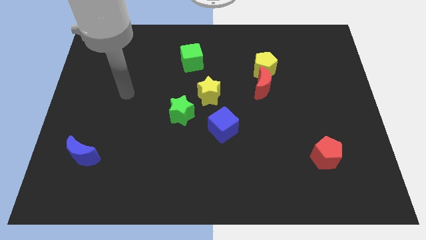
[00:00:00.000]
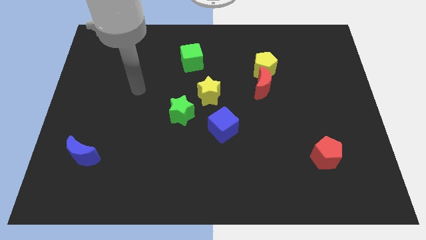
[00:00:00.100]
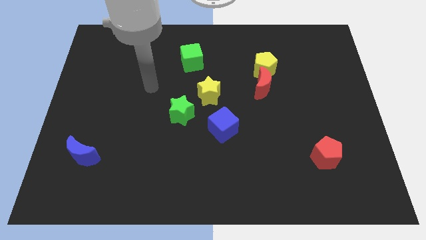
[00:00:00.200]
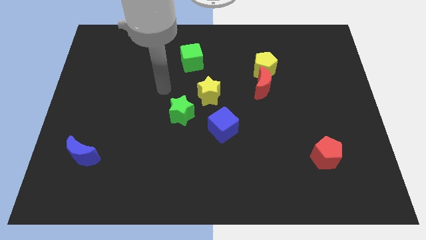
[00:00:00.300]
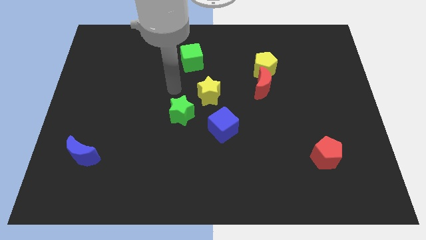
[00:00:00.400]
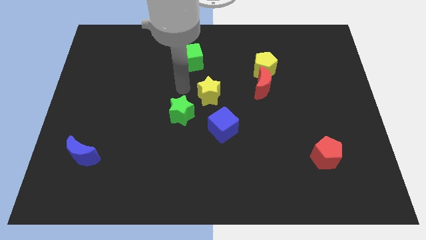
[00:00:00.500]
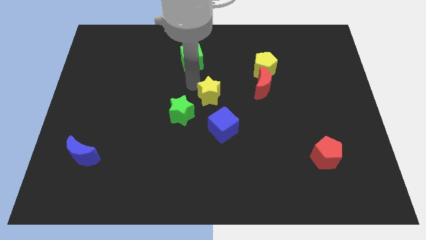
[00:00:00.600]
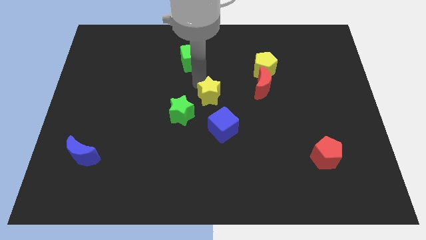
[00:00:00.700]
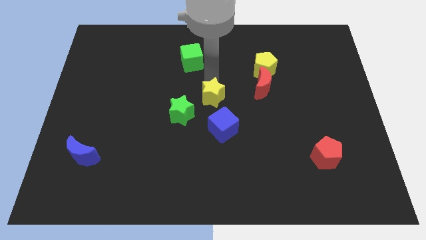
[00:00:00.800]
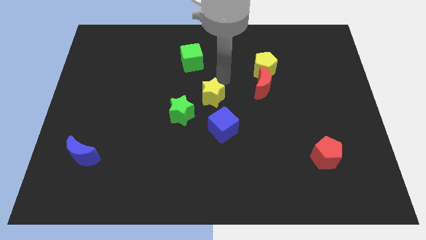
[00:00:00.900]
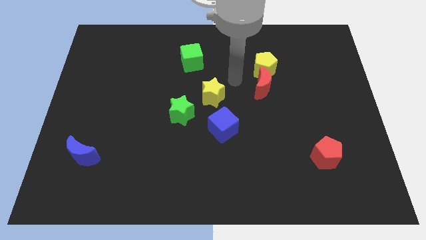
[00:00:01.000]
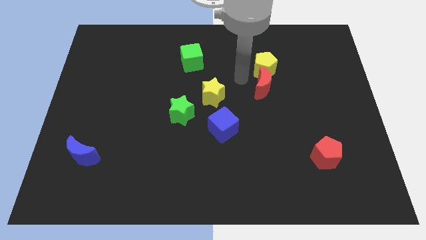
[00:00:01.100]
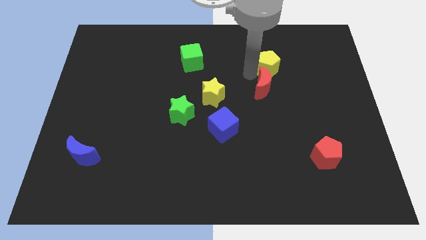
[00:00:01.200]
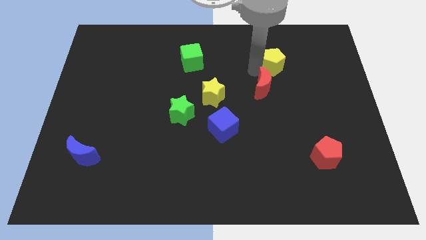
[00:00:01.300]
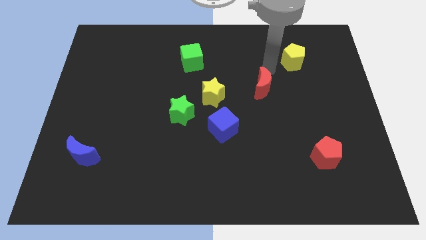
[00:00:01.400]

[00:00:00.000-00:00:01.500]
separate the red moon from the yellow pentagon

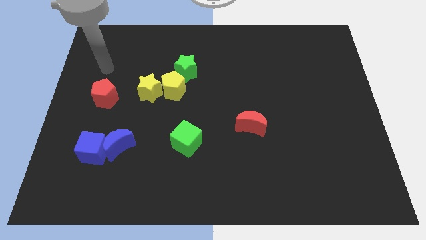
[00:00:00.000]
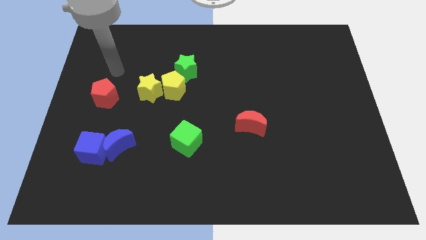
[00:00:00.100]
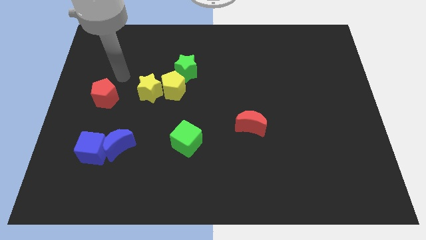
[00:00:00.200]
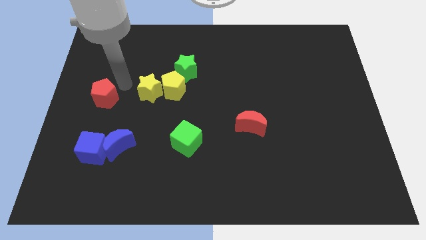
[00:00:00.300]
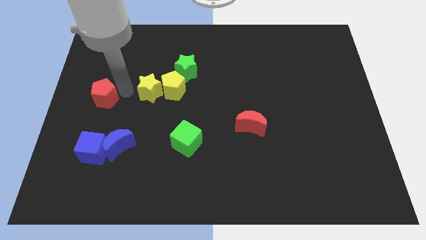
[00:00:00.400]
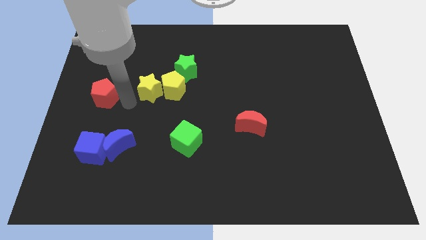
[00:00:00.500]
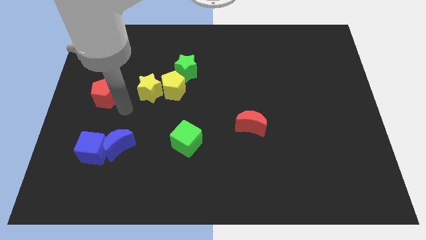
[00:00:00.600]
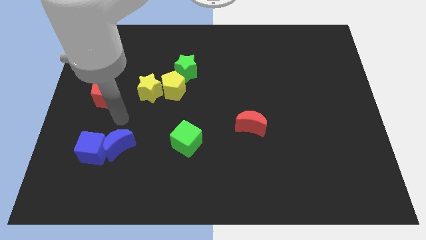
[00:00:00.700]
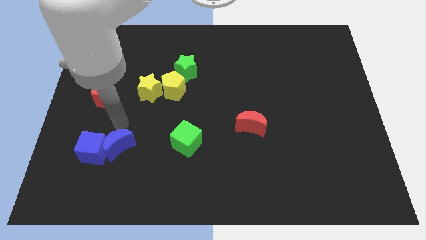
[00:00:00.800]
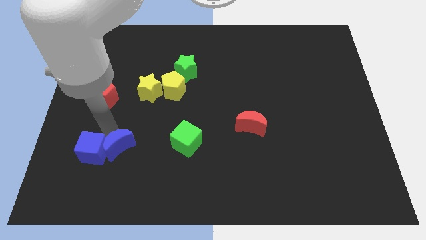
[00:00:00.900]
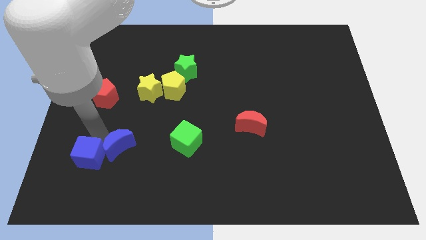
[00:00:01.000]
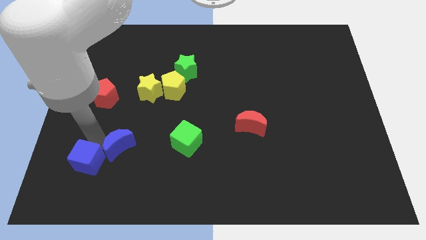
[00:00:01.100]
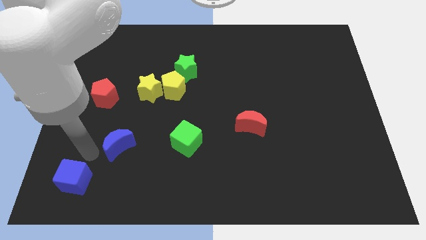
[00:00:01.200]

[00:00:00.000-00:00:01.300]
separate the blue moon from the blue cube

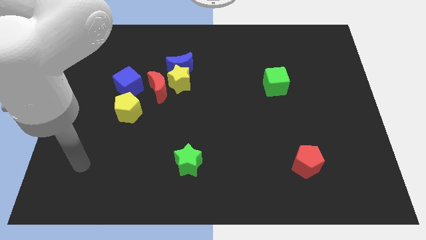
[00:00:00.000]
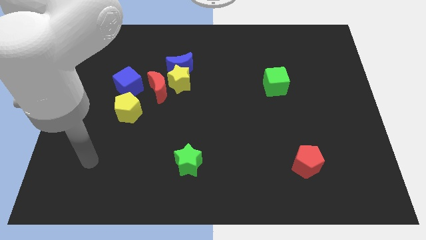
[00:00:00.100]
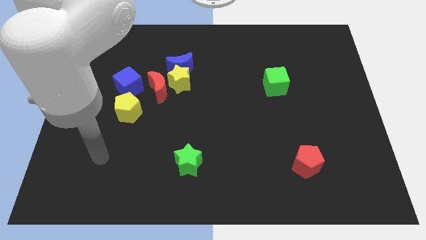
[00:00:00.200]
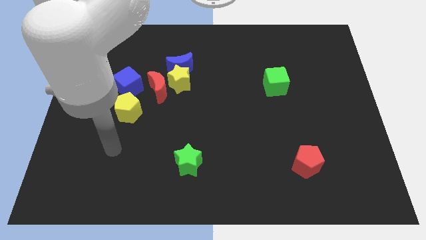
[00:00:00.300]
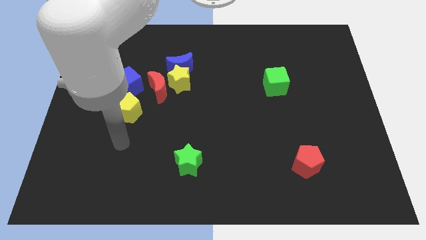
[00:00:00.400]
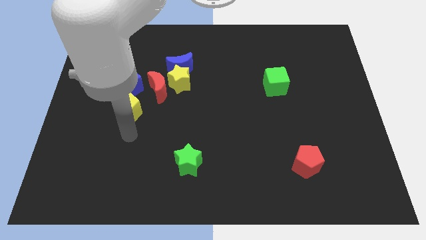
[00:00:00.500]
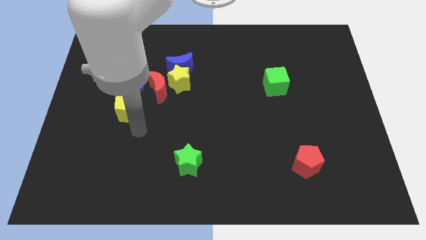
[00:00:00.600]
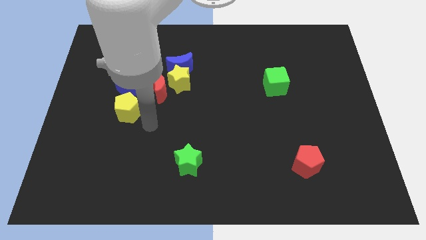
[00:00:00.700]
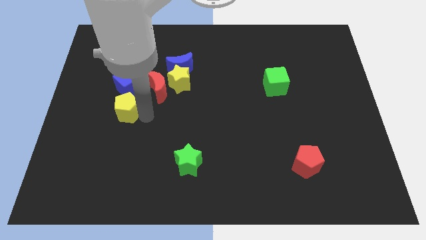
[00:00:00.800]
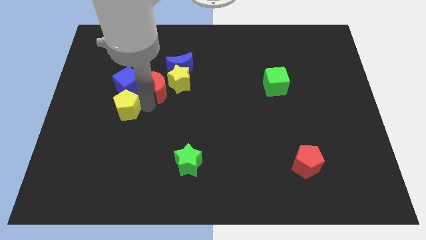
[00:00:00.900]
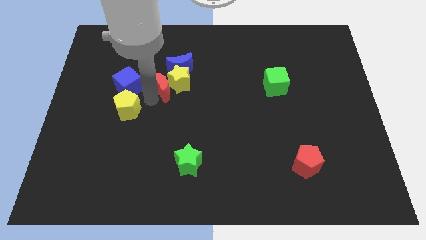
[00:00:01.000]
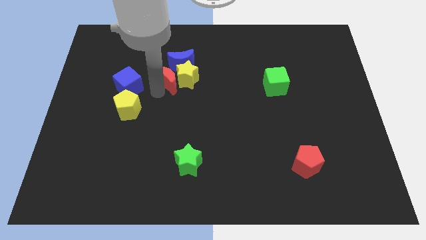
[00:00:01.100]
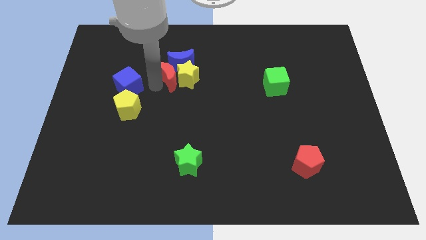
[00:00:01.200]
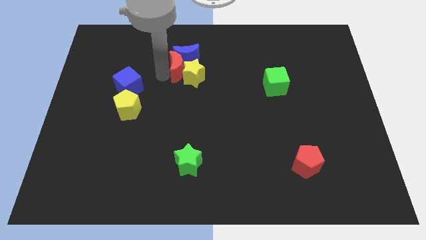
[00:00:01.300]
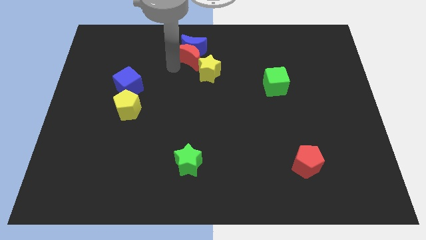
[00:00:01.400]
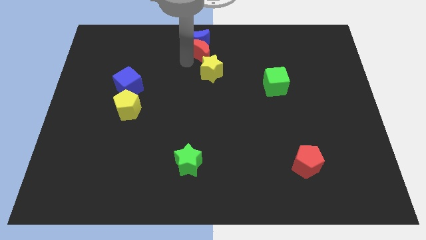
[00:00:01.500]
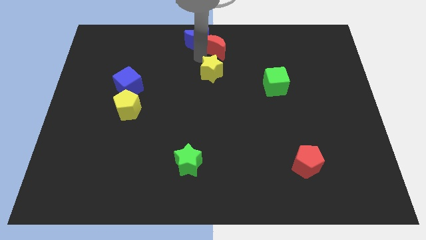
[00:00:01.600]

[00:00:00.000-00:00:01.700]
move the yellow star away from the blue moon and red moon

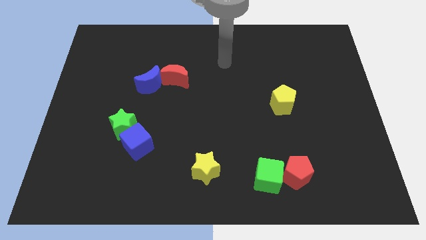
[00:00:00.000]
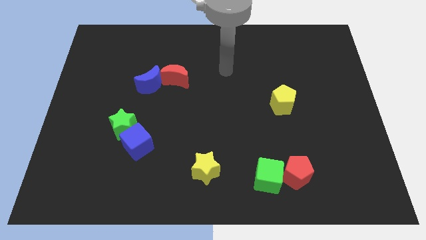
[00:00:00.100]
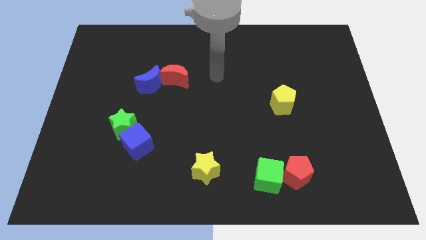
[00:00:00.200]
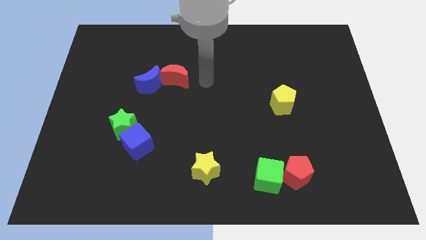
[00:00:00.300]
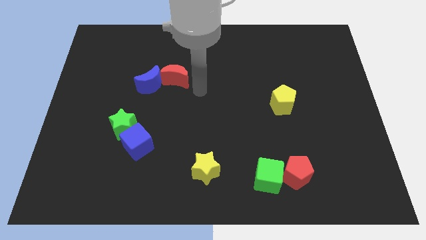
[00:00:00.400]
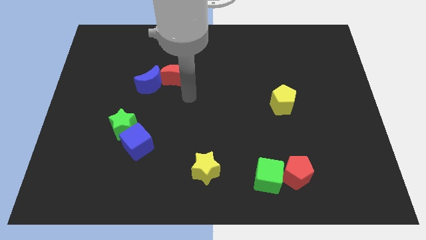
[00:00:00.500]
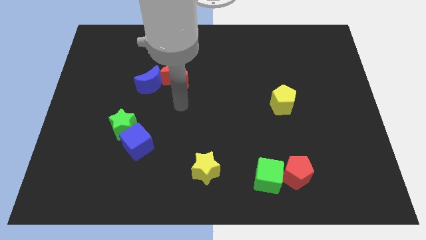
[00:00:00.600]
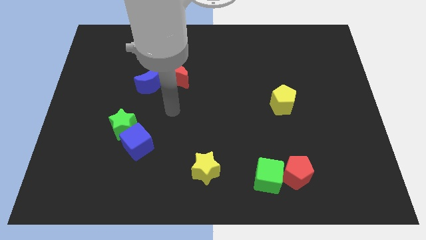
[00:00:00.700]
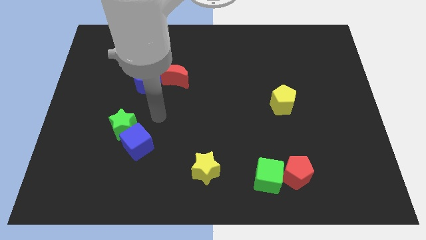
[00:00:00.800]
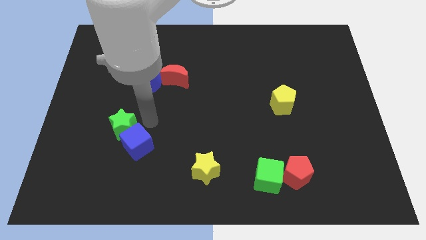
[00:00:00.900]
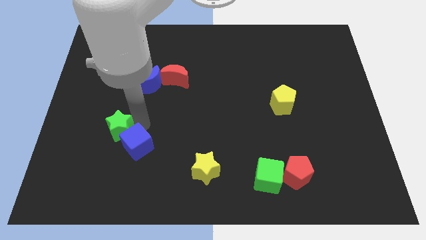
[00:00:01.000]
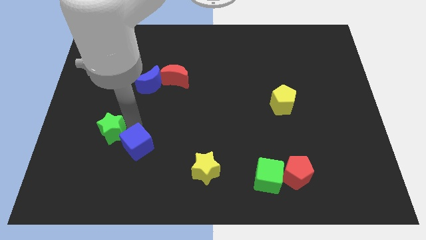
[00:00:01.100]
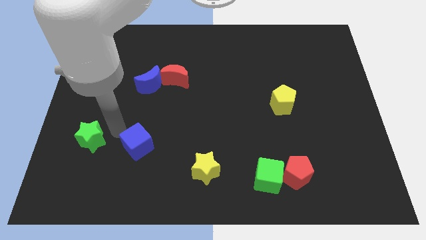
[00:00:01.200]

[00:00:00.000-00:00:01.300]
separate the blue cube from the green star

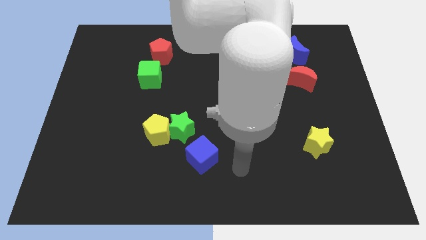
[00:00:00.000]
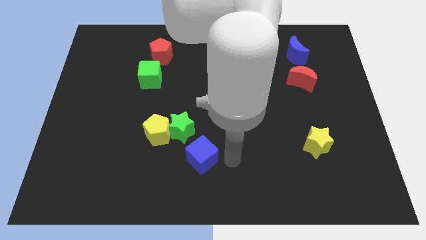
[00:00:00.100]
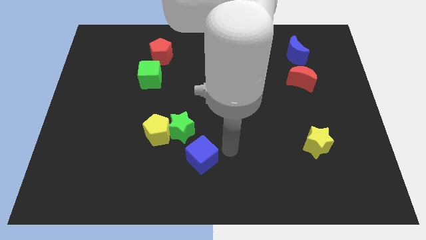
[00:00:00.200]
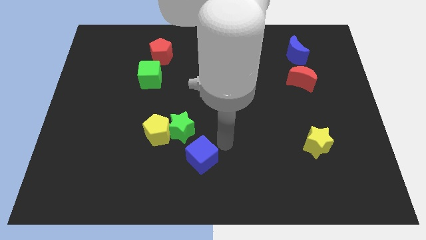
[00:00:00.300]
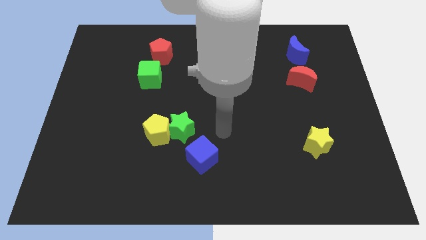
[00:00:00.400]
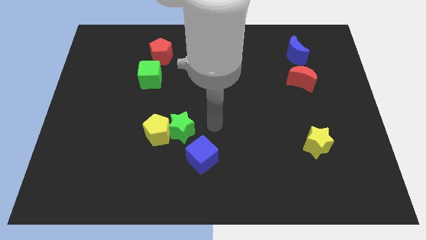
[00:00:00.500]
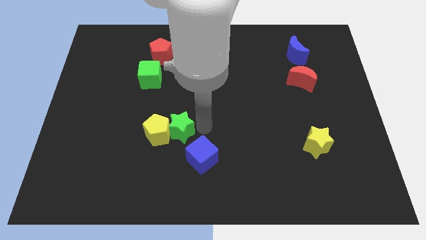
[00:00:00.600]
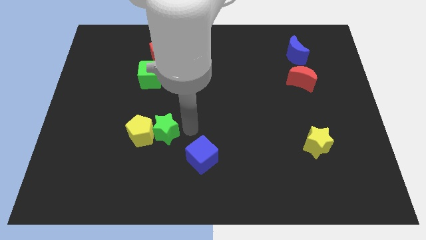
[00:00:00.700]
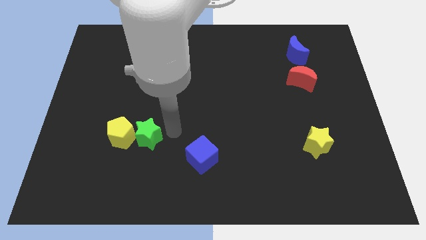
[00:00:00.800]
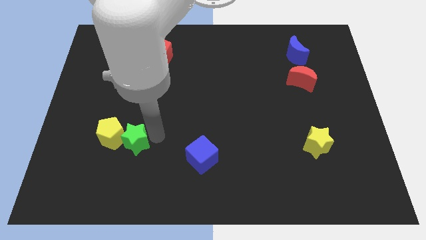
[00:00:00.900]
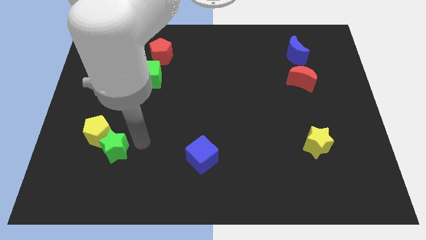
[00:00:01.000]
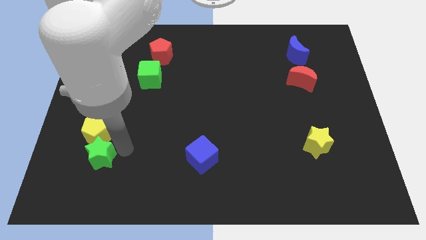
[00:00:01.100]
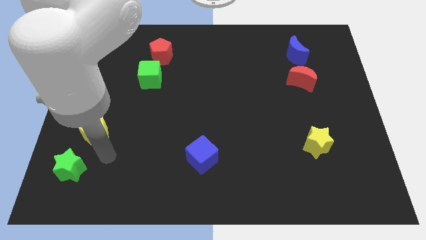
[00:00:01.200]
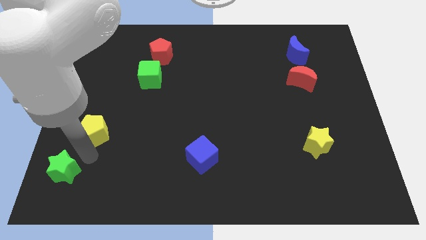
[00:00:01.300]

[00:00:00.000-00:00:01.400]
pull the yellow pentagon apart from the green star

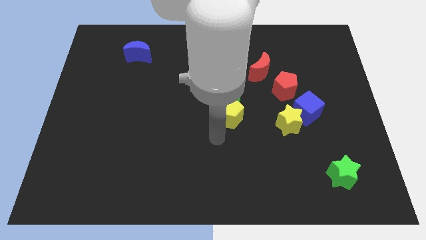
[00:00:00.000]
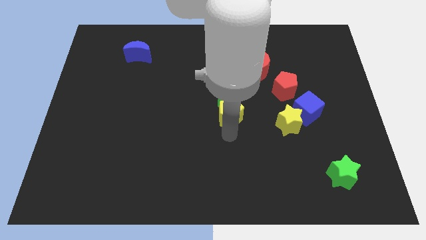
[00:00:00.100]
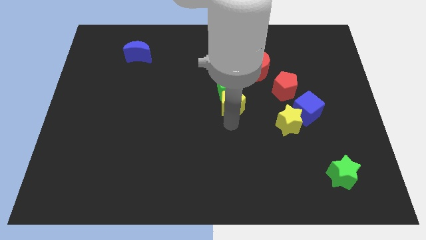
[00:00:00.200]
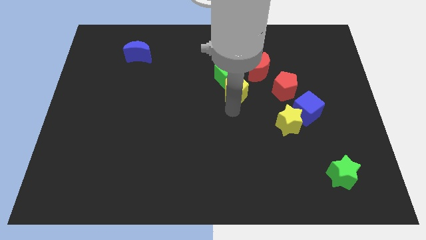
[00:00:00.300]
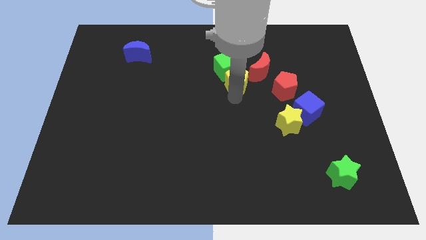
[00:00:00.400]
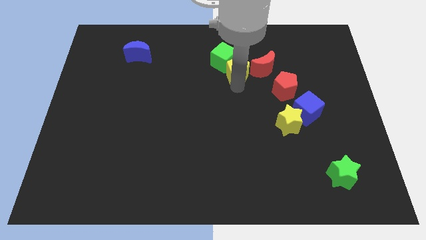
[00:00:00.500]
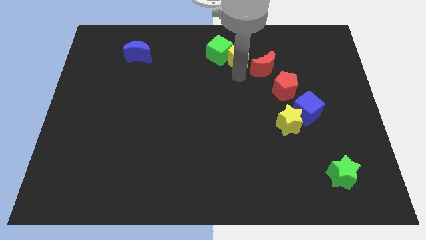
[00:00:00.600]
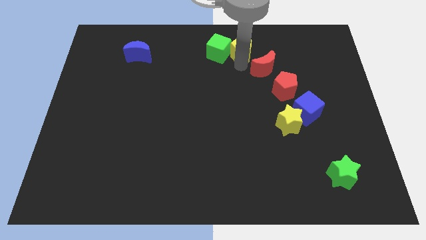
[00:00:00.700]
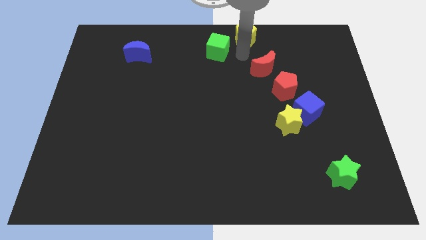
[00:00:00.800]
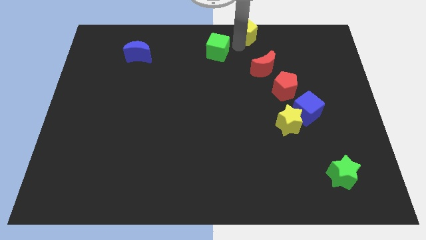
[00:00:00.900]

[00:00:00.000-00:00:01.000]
move the green cube away from the yellow pentagon

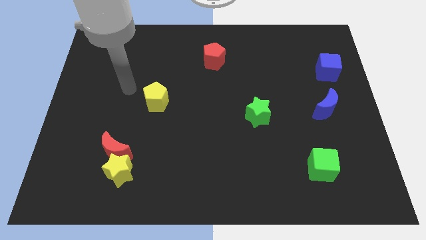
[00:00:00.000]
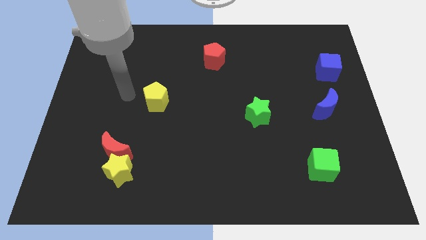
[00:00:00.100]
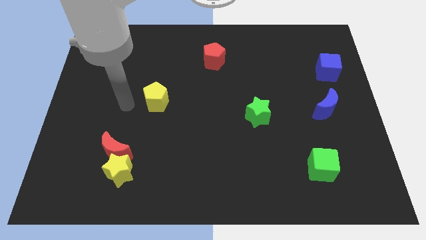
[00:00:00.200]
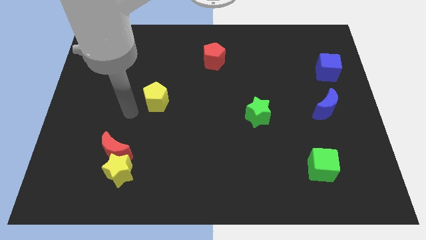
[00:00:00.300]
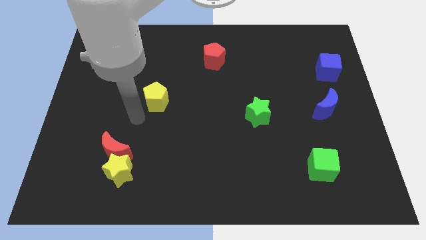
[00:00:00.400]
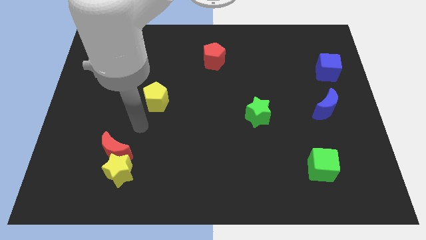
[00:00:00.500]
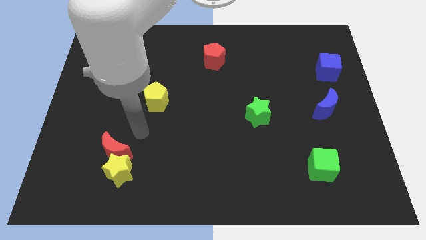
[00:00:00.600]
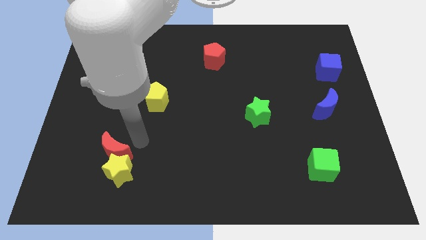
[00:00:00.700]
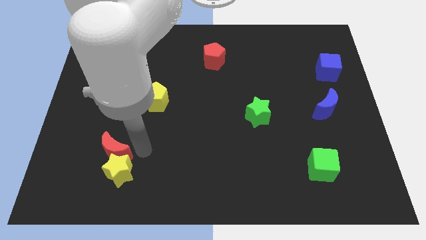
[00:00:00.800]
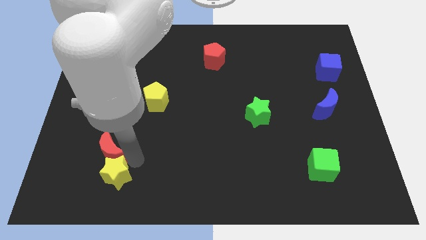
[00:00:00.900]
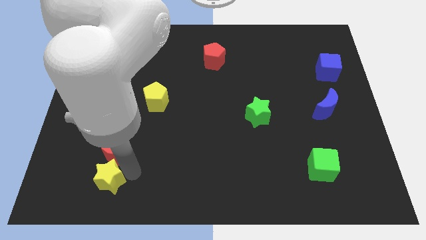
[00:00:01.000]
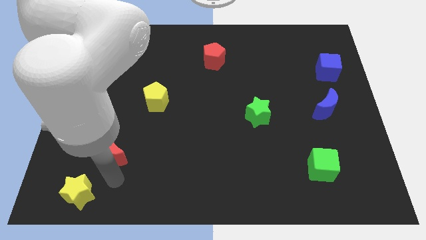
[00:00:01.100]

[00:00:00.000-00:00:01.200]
separate the red moon from the yellow star
